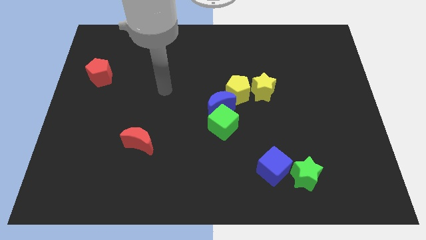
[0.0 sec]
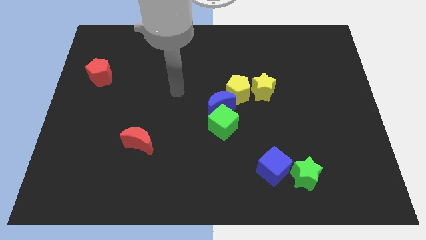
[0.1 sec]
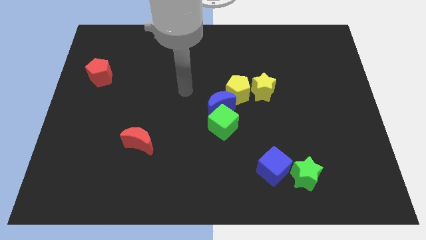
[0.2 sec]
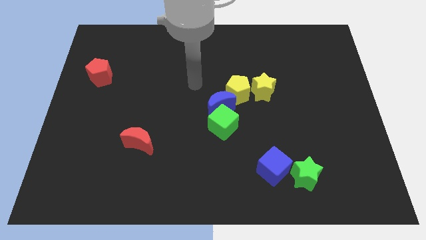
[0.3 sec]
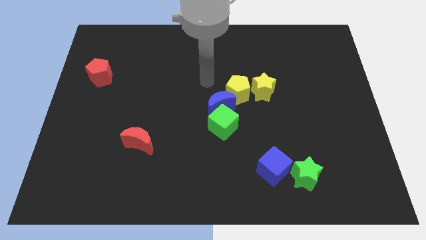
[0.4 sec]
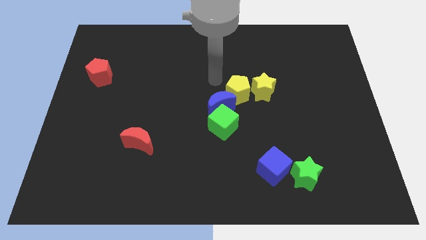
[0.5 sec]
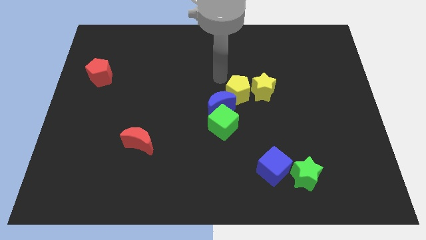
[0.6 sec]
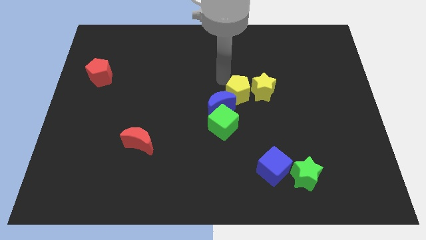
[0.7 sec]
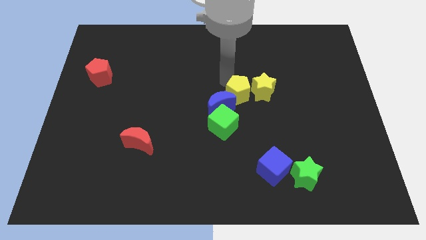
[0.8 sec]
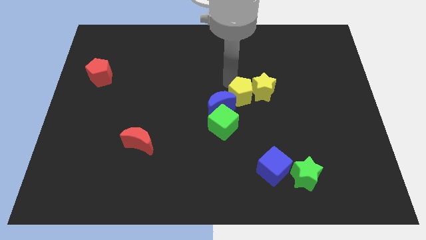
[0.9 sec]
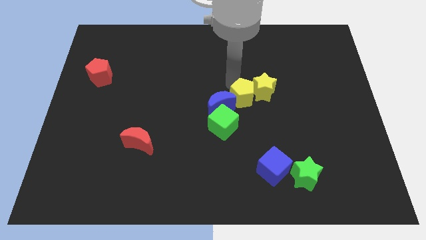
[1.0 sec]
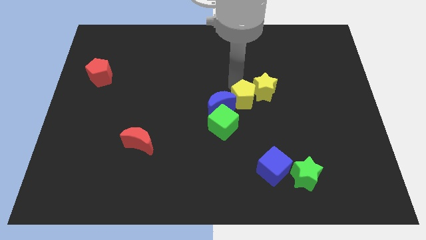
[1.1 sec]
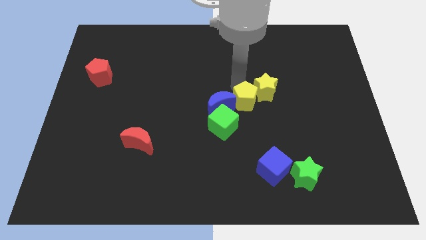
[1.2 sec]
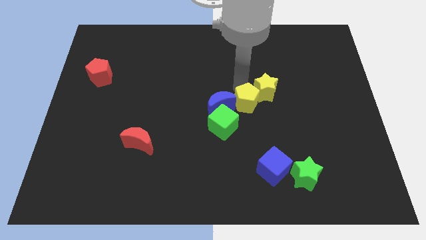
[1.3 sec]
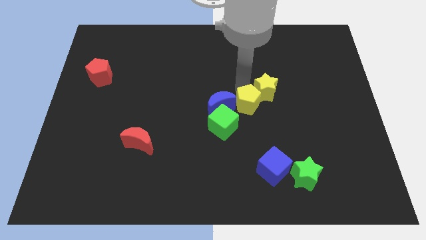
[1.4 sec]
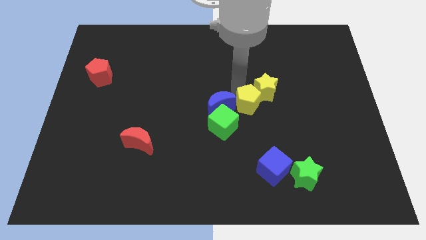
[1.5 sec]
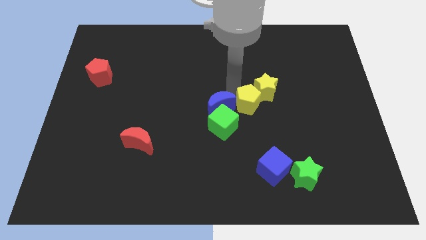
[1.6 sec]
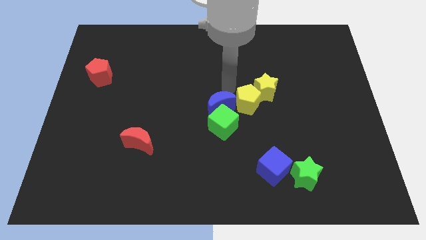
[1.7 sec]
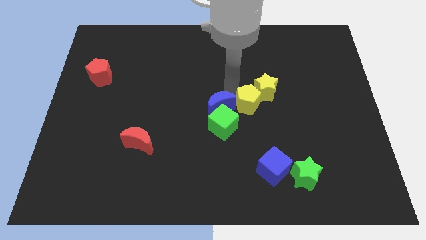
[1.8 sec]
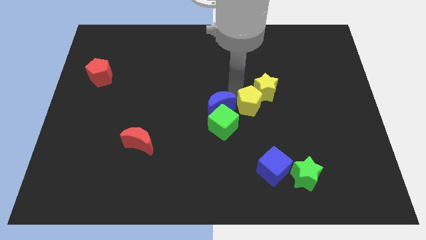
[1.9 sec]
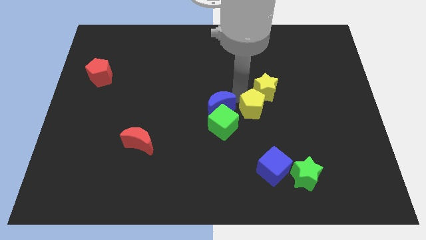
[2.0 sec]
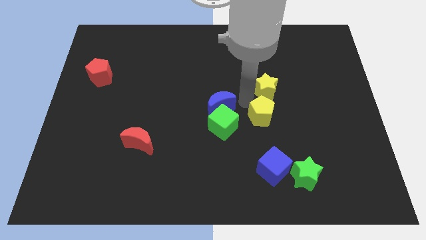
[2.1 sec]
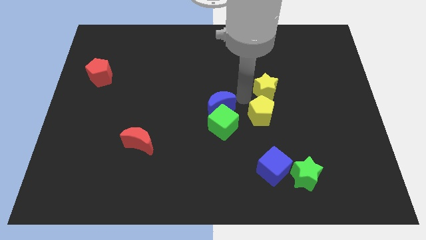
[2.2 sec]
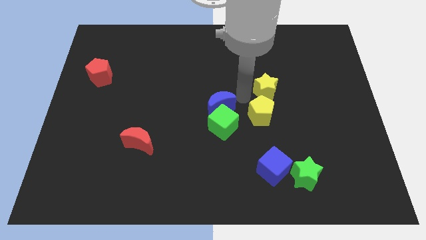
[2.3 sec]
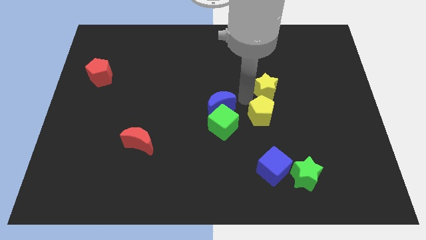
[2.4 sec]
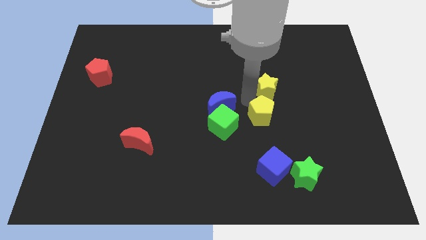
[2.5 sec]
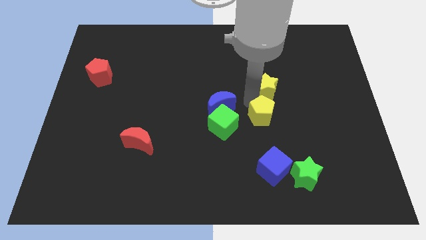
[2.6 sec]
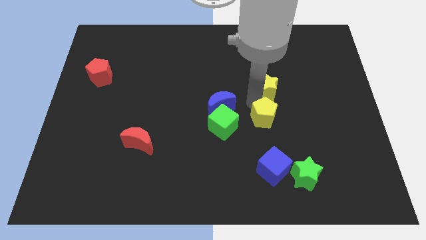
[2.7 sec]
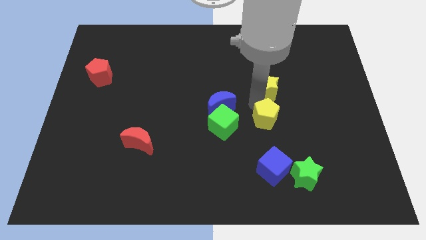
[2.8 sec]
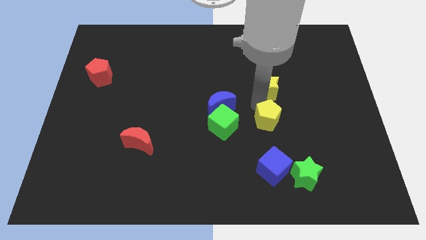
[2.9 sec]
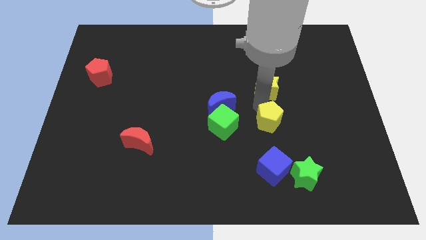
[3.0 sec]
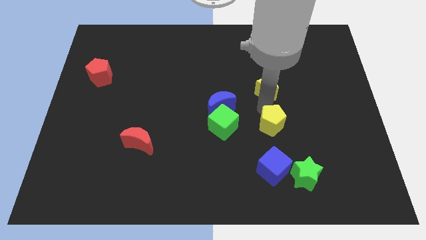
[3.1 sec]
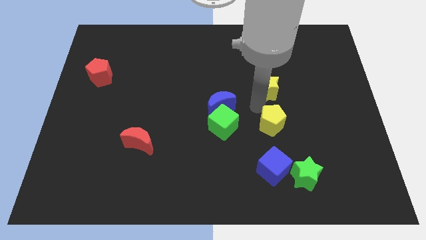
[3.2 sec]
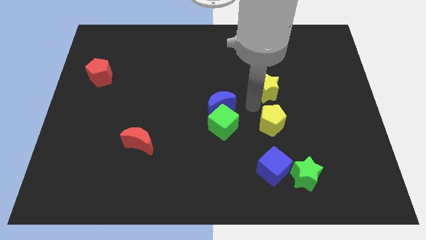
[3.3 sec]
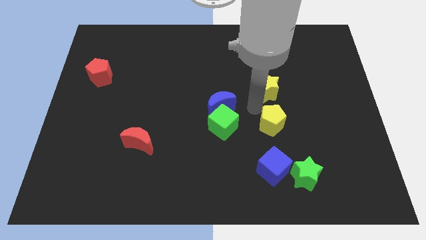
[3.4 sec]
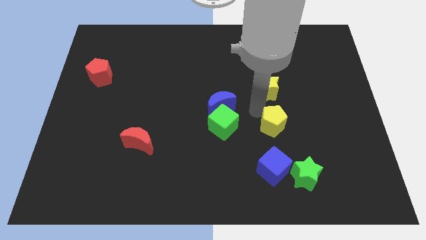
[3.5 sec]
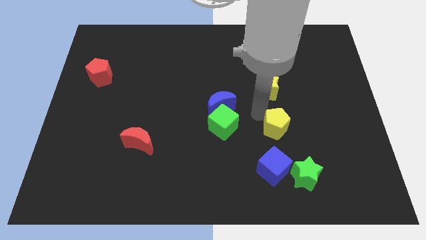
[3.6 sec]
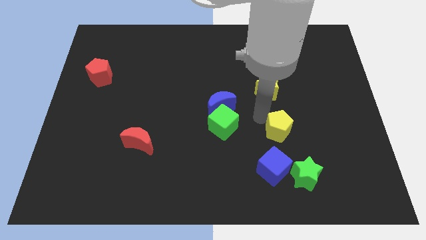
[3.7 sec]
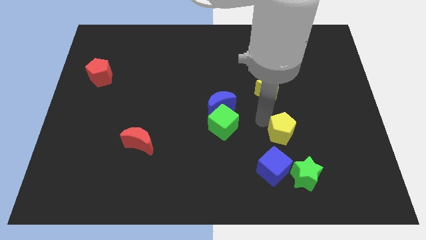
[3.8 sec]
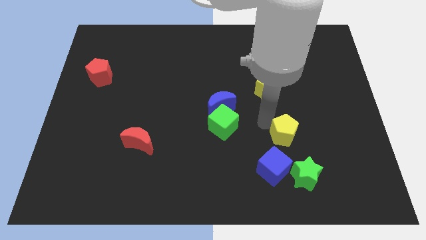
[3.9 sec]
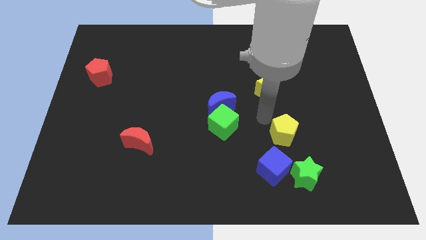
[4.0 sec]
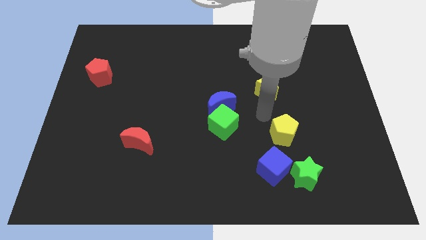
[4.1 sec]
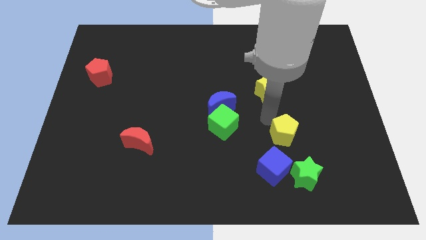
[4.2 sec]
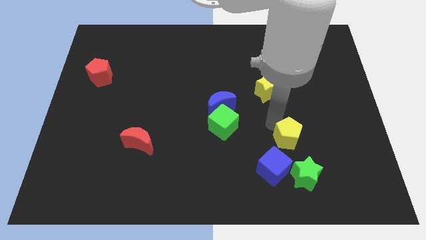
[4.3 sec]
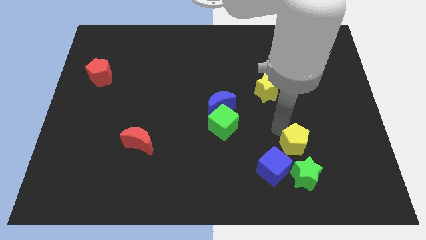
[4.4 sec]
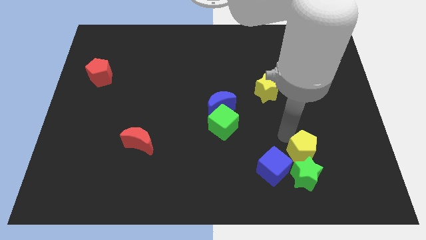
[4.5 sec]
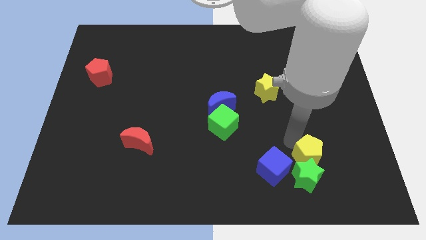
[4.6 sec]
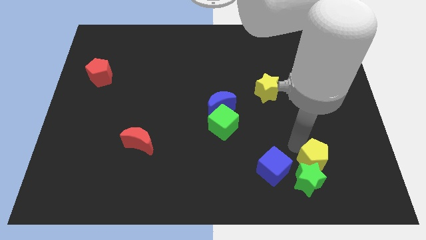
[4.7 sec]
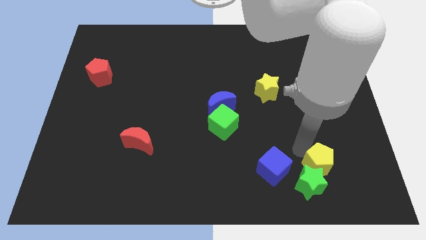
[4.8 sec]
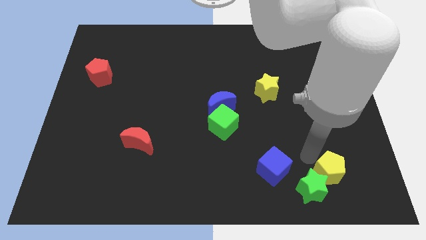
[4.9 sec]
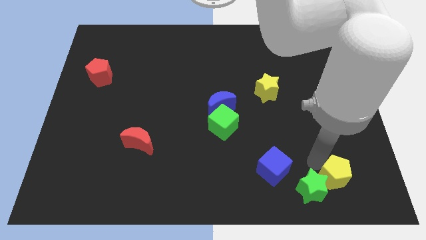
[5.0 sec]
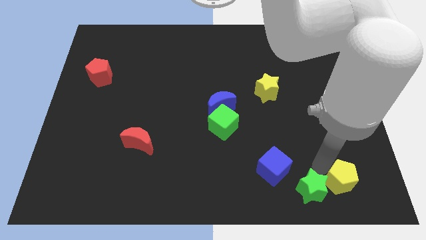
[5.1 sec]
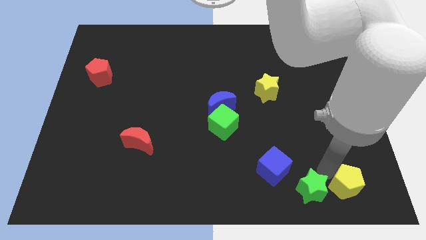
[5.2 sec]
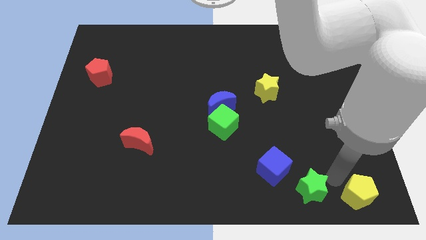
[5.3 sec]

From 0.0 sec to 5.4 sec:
slide the yellow pentagon to the lower right corner
